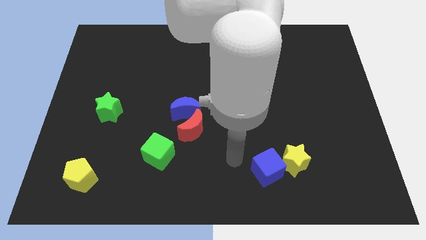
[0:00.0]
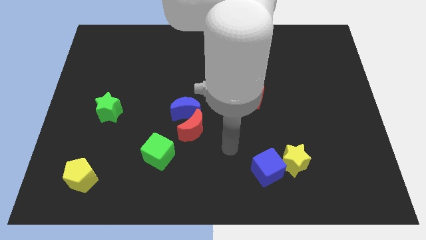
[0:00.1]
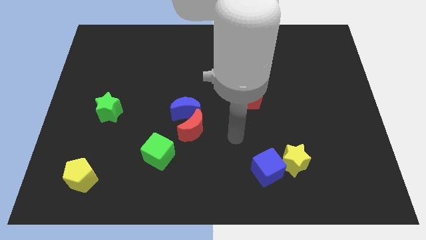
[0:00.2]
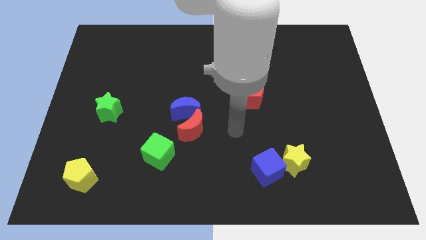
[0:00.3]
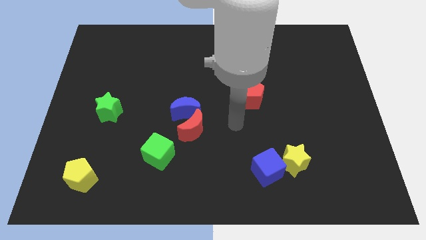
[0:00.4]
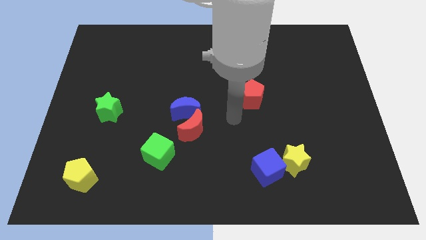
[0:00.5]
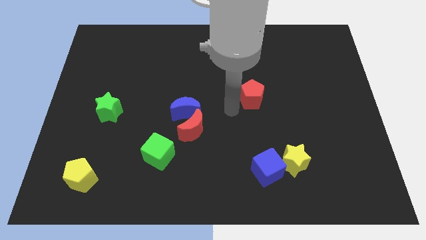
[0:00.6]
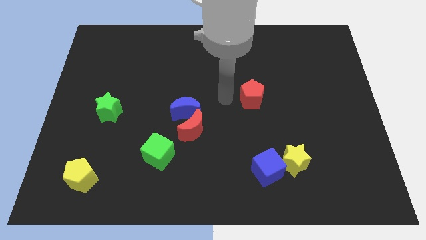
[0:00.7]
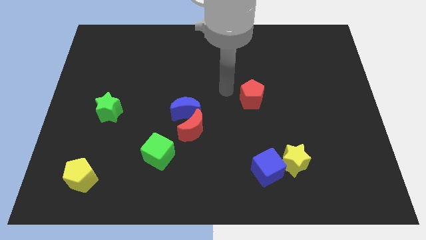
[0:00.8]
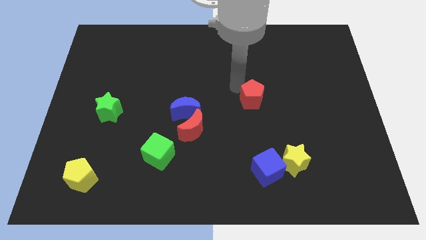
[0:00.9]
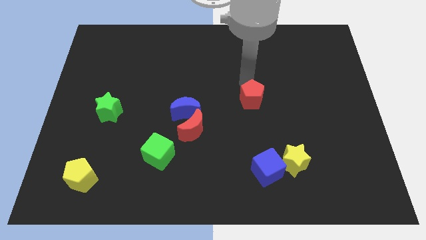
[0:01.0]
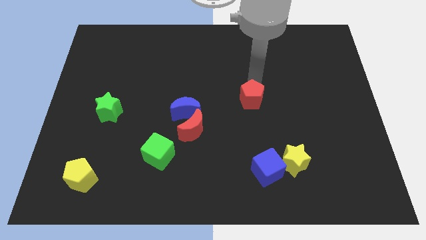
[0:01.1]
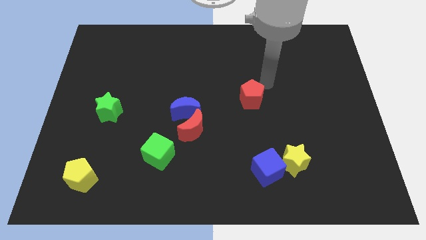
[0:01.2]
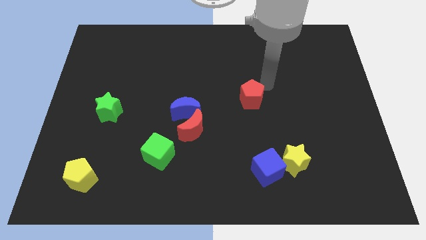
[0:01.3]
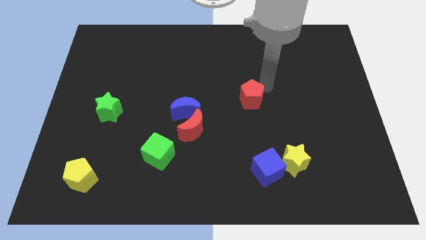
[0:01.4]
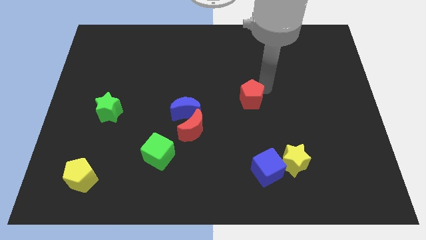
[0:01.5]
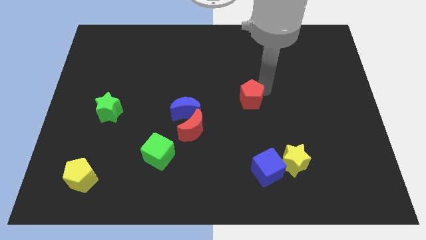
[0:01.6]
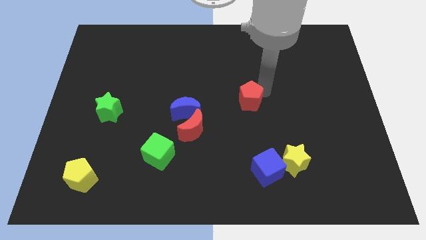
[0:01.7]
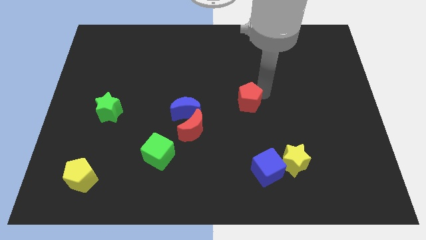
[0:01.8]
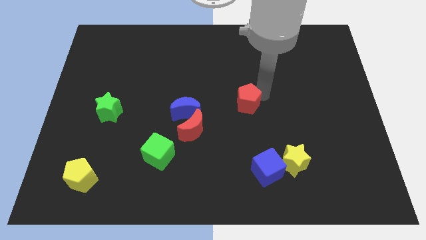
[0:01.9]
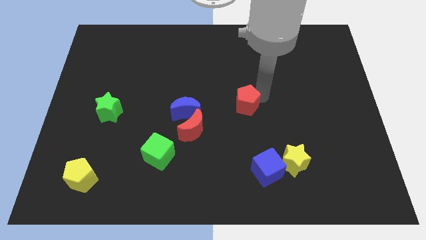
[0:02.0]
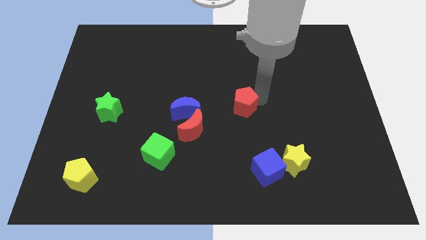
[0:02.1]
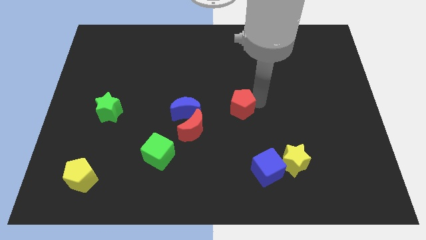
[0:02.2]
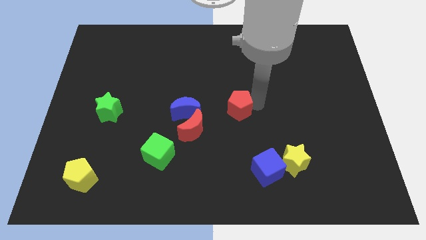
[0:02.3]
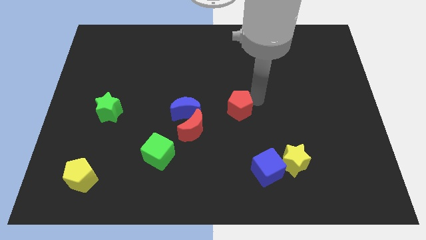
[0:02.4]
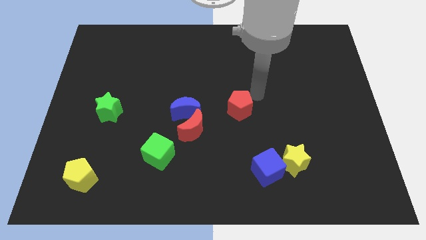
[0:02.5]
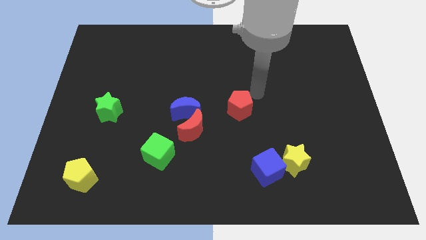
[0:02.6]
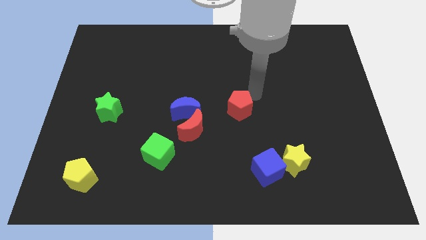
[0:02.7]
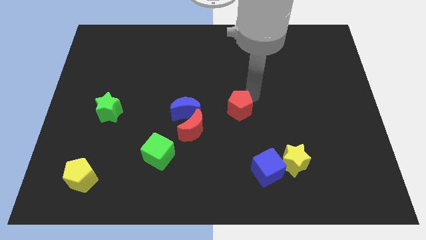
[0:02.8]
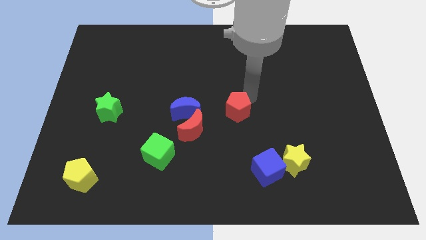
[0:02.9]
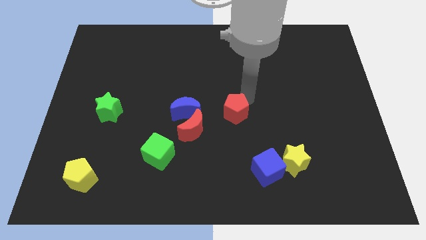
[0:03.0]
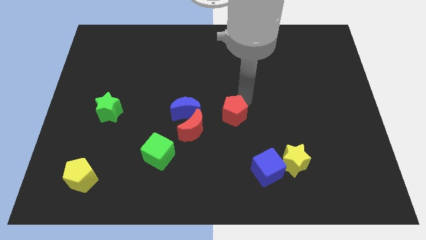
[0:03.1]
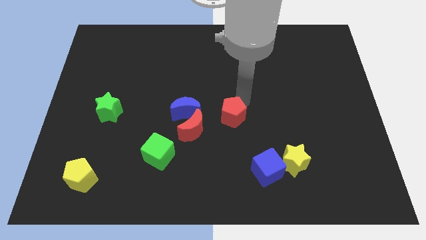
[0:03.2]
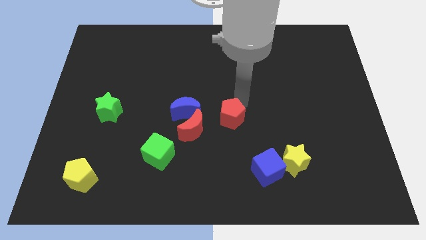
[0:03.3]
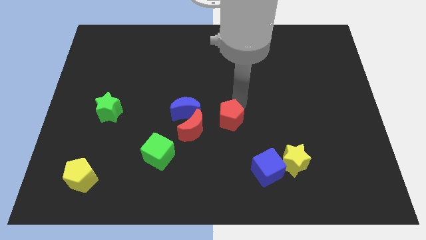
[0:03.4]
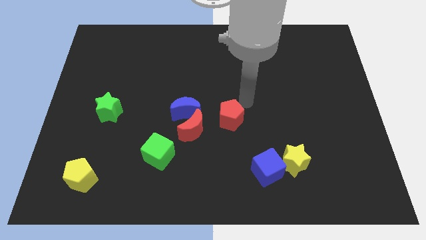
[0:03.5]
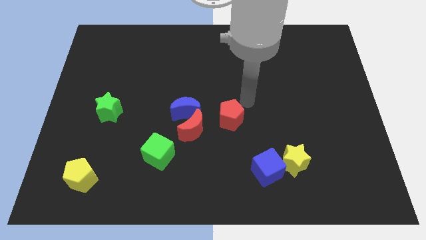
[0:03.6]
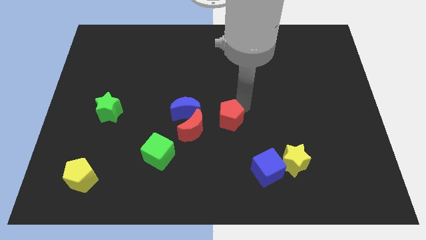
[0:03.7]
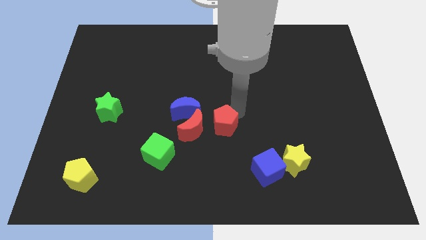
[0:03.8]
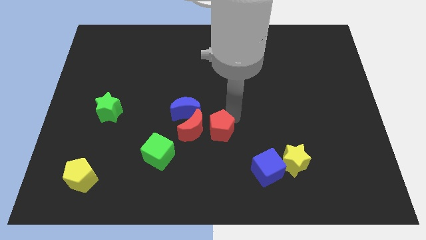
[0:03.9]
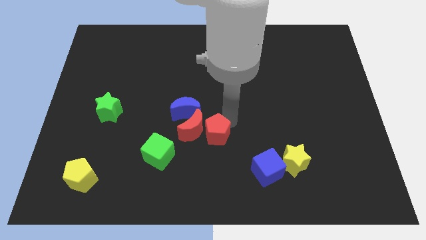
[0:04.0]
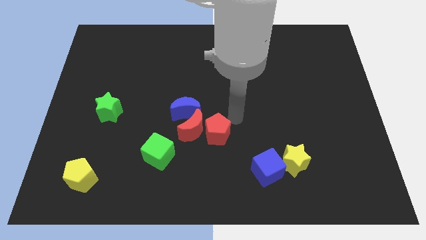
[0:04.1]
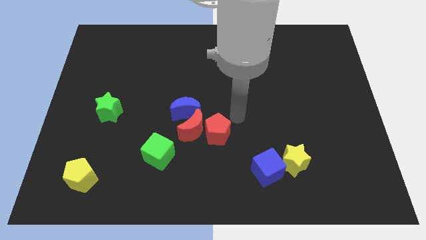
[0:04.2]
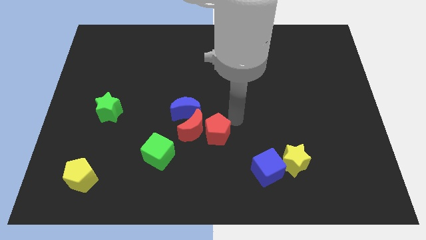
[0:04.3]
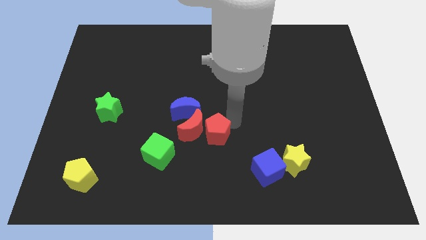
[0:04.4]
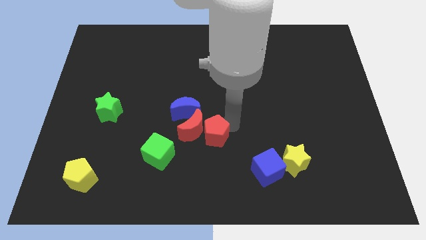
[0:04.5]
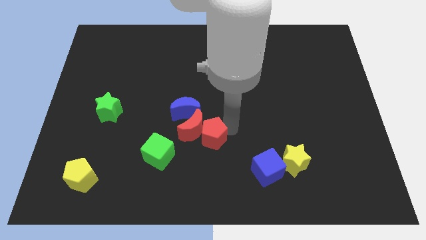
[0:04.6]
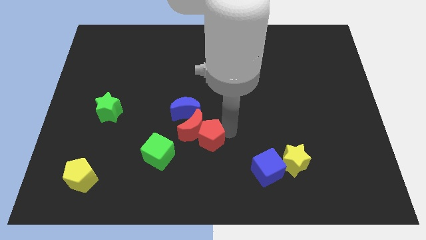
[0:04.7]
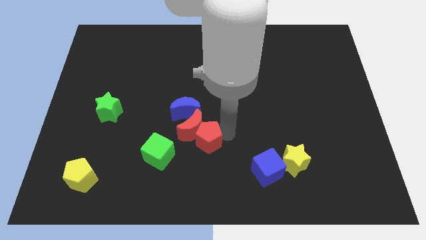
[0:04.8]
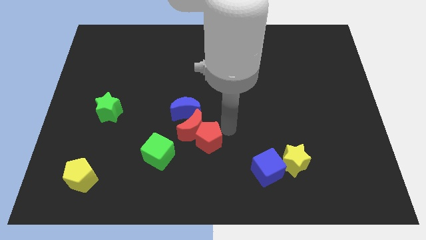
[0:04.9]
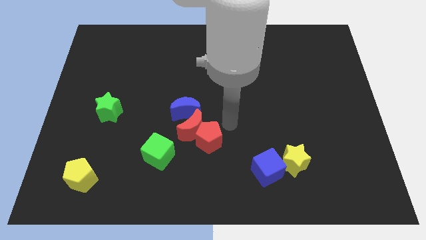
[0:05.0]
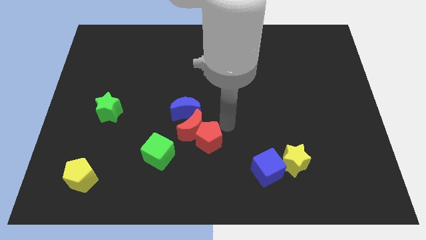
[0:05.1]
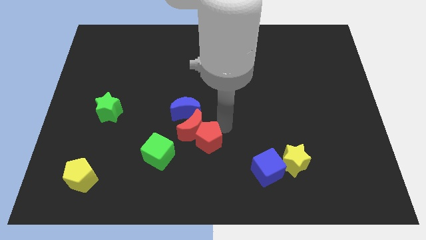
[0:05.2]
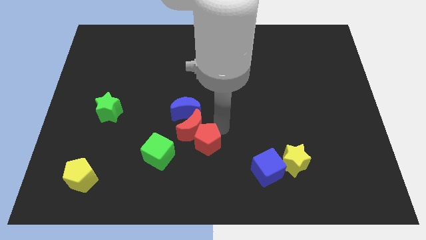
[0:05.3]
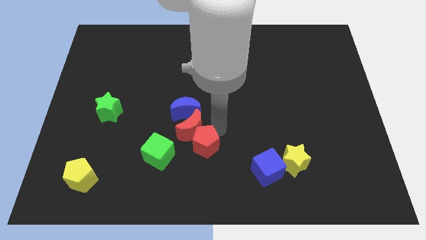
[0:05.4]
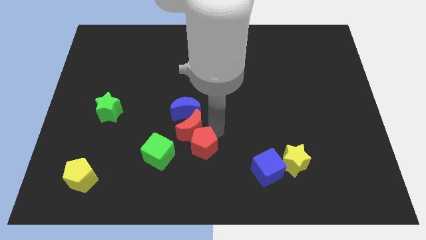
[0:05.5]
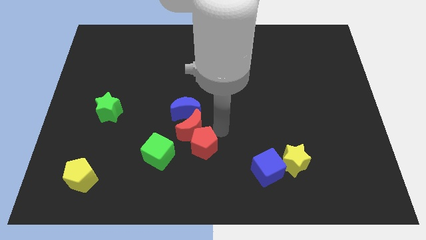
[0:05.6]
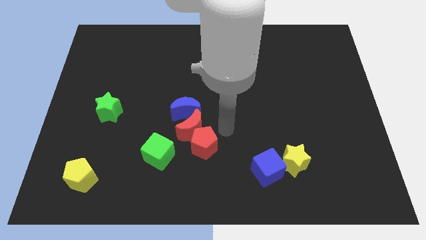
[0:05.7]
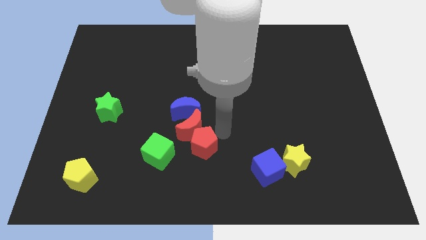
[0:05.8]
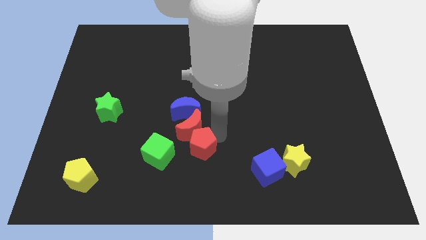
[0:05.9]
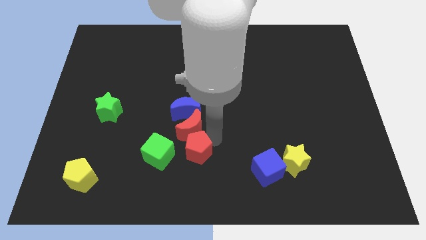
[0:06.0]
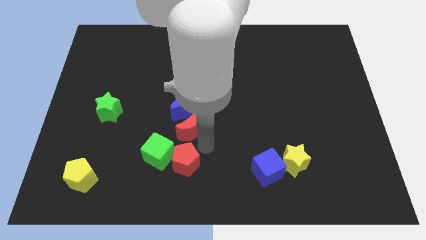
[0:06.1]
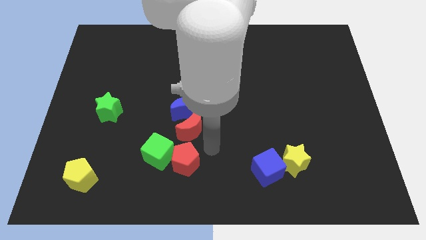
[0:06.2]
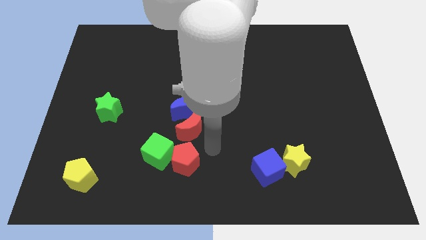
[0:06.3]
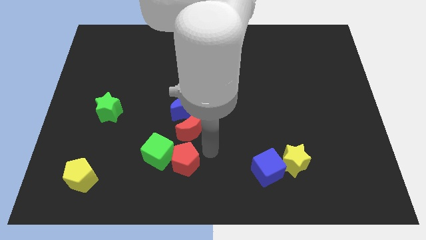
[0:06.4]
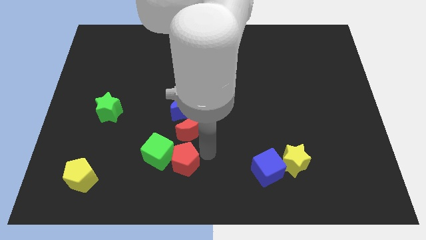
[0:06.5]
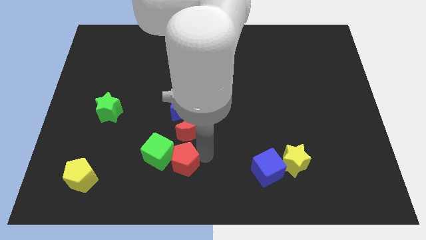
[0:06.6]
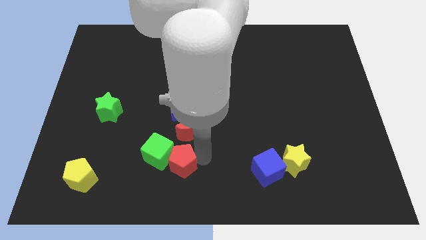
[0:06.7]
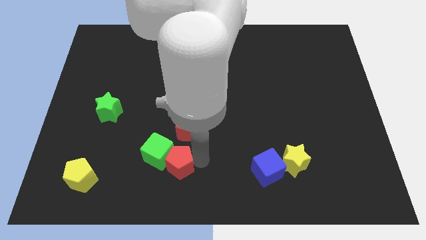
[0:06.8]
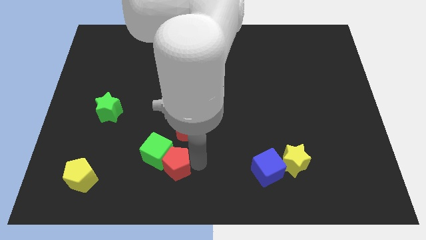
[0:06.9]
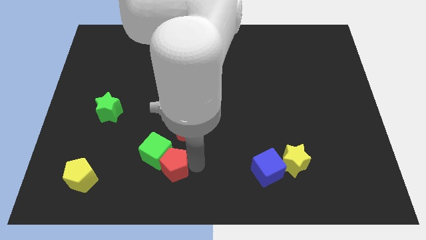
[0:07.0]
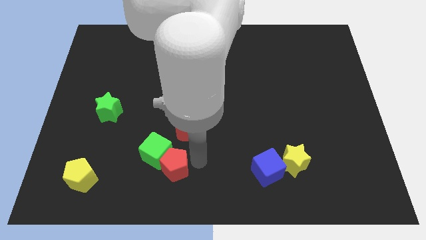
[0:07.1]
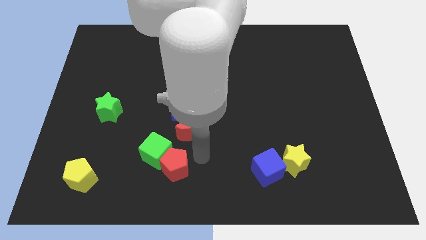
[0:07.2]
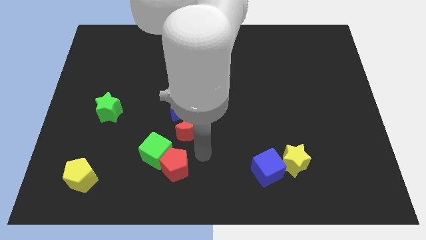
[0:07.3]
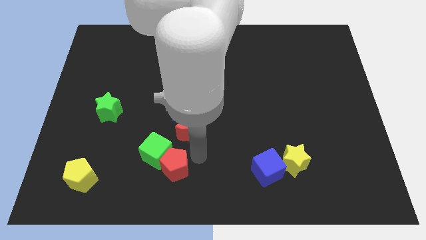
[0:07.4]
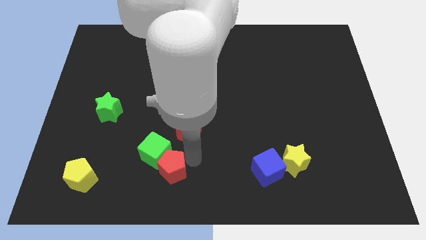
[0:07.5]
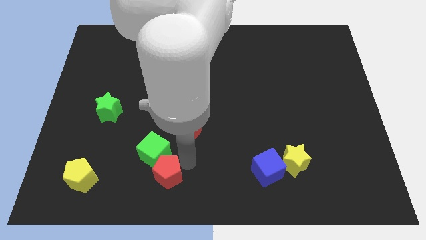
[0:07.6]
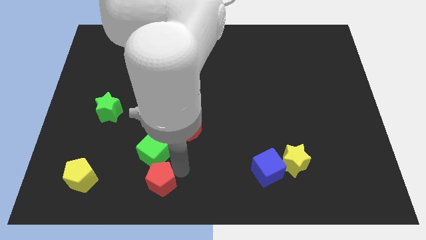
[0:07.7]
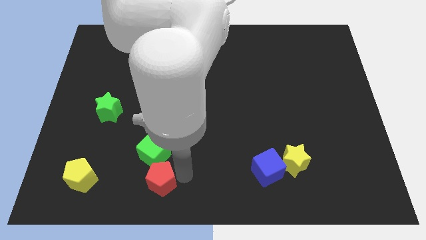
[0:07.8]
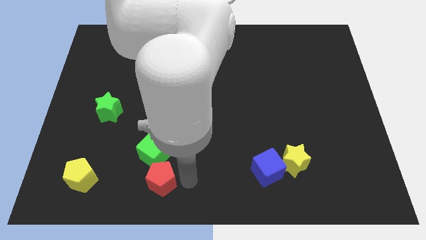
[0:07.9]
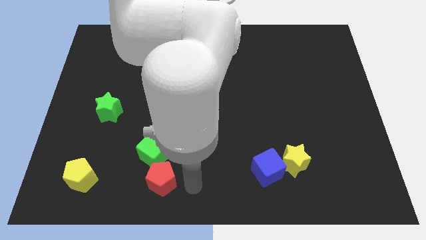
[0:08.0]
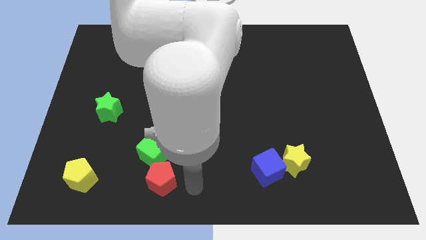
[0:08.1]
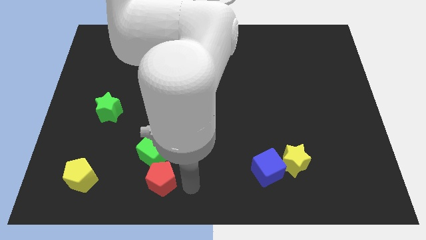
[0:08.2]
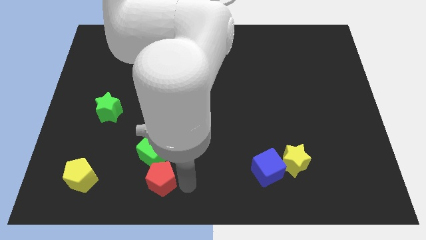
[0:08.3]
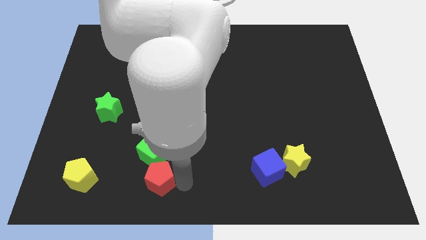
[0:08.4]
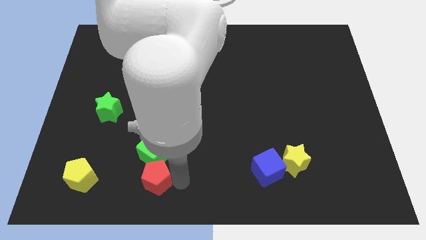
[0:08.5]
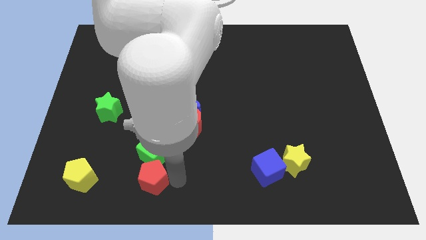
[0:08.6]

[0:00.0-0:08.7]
slide the red pentagon diagonally down and to the left of the green cube
